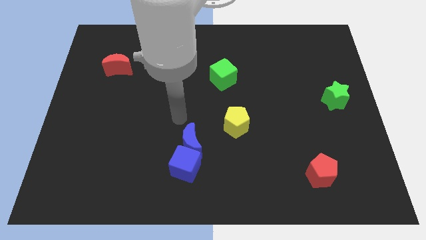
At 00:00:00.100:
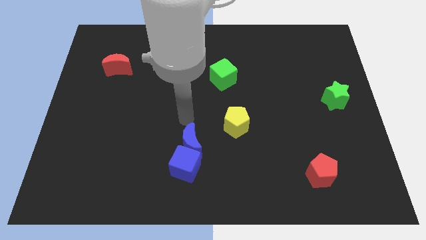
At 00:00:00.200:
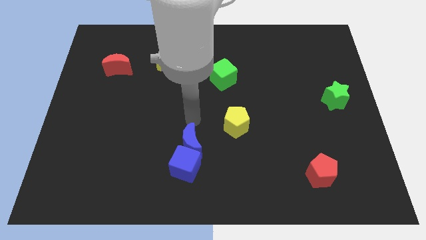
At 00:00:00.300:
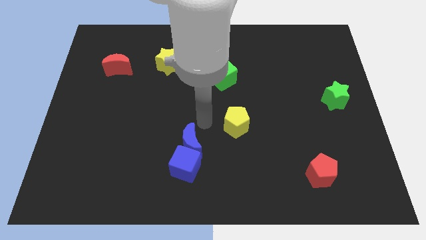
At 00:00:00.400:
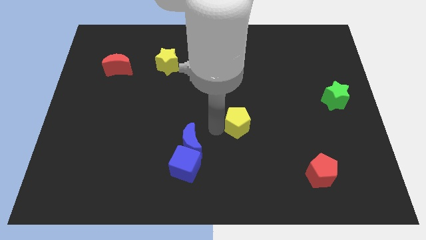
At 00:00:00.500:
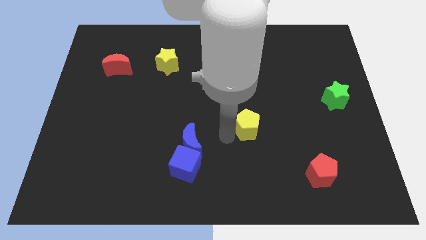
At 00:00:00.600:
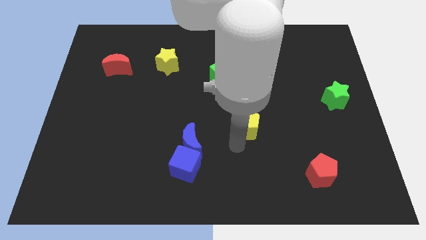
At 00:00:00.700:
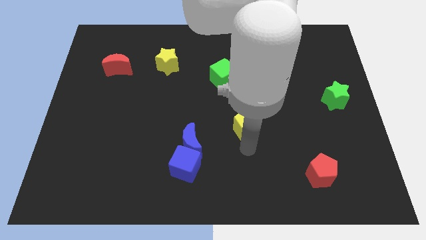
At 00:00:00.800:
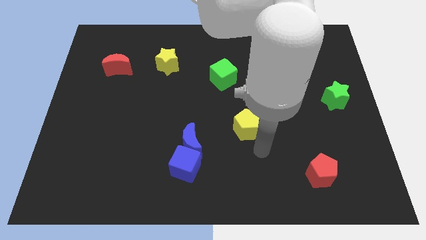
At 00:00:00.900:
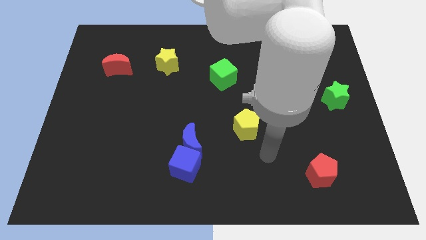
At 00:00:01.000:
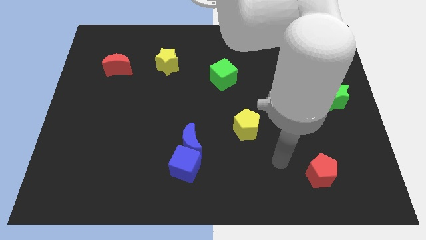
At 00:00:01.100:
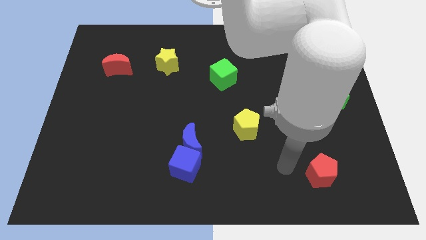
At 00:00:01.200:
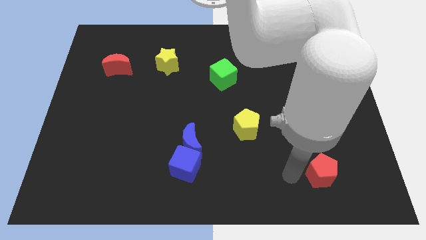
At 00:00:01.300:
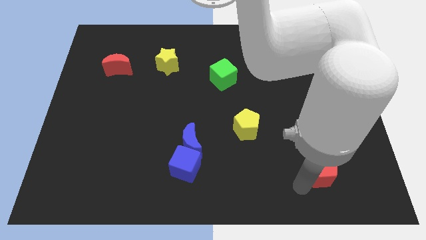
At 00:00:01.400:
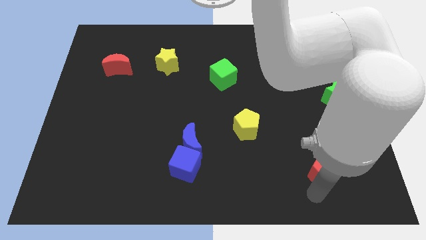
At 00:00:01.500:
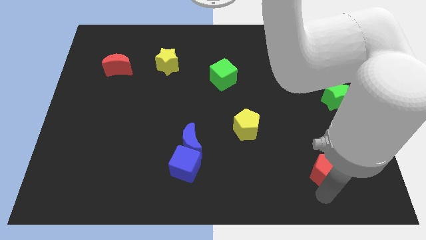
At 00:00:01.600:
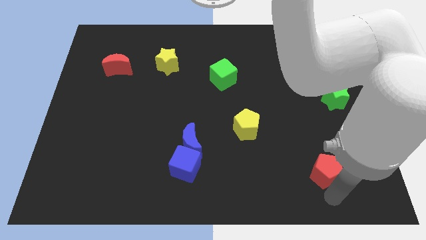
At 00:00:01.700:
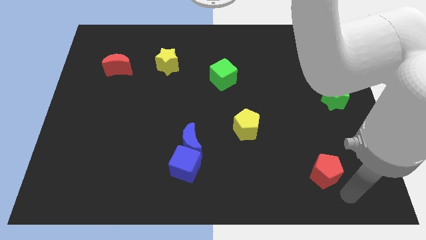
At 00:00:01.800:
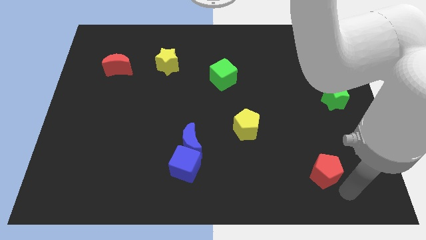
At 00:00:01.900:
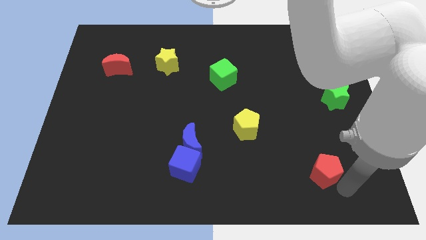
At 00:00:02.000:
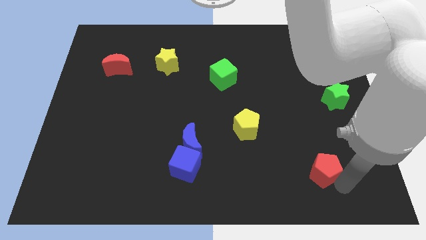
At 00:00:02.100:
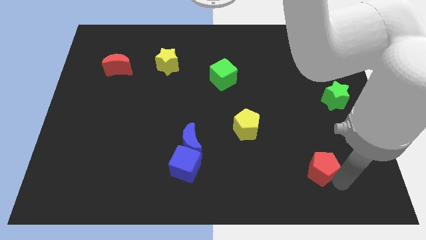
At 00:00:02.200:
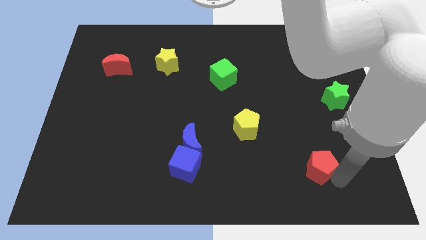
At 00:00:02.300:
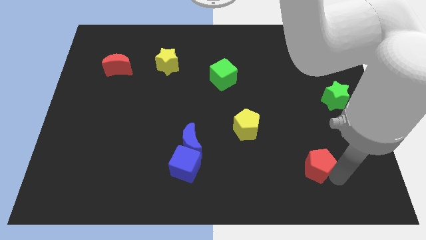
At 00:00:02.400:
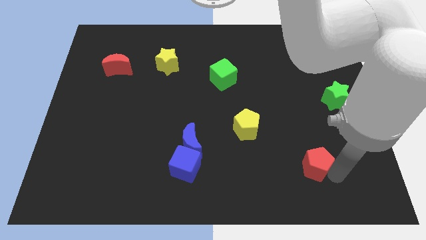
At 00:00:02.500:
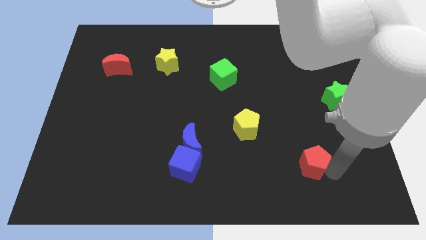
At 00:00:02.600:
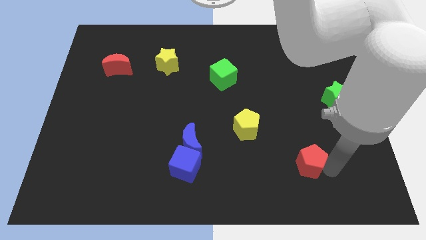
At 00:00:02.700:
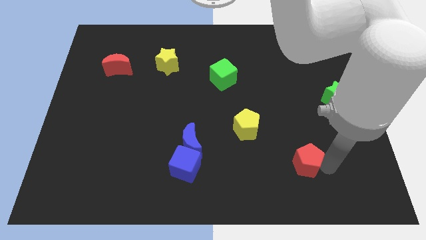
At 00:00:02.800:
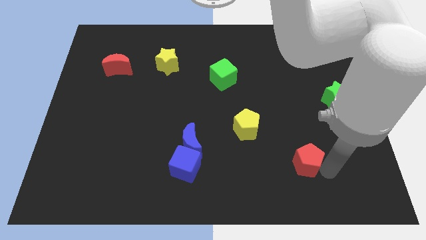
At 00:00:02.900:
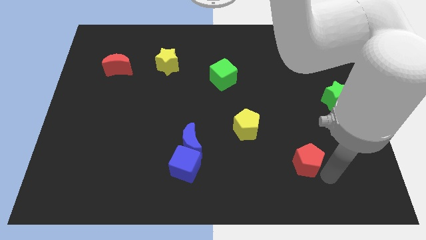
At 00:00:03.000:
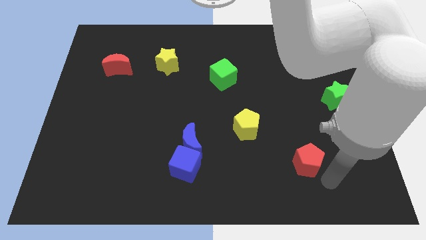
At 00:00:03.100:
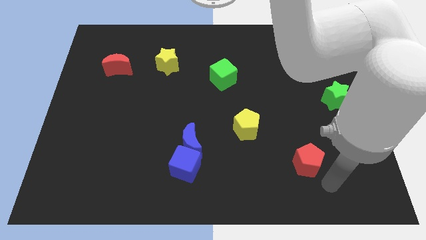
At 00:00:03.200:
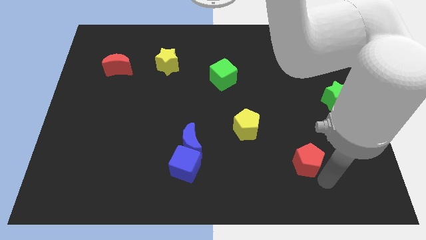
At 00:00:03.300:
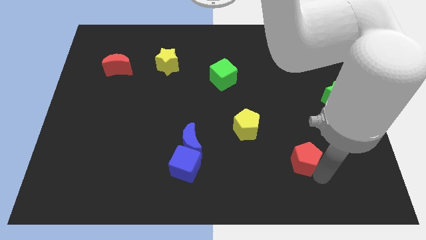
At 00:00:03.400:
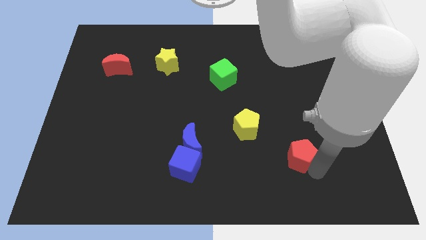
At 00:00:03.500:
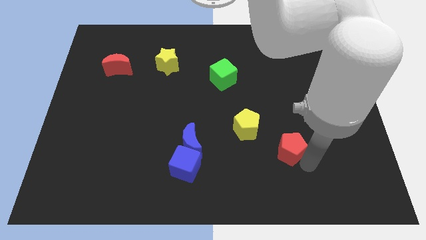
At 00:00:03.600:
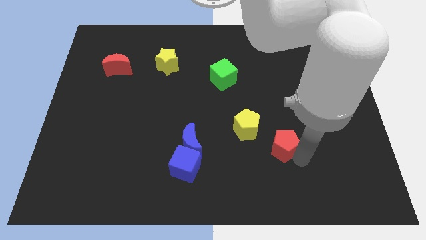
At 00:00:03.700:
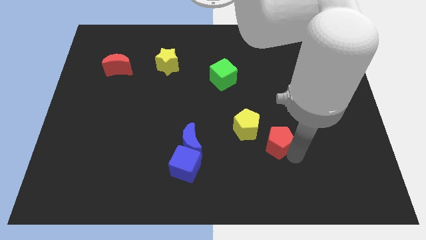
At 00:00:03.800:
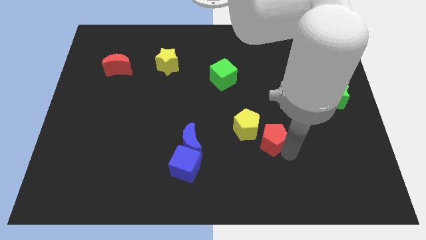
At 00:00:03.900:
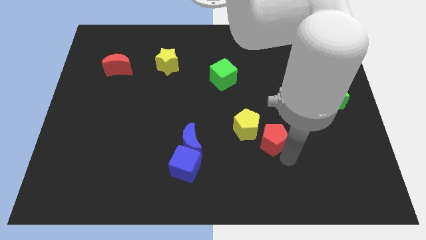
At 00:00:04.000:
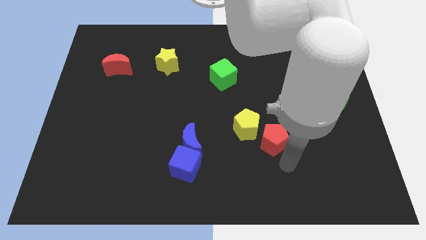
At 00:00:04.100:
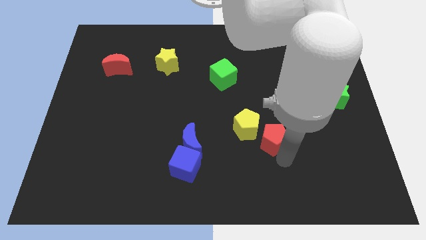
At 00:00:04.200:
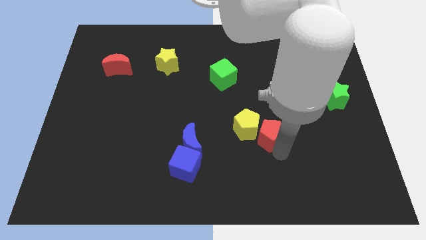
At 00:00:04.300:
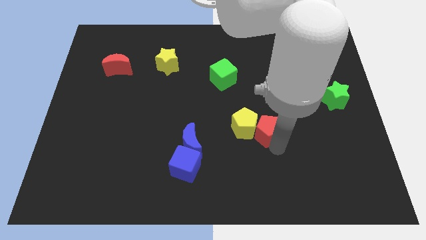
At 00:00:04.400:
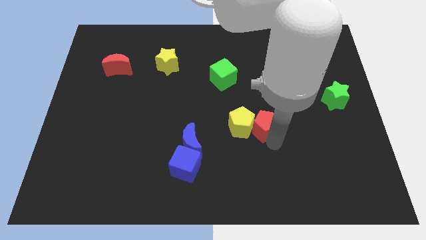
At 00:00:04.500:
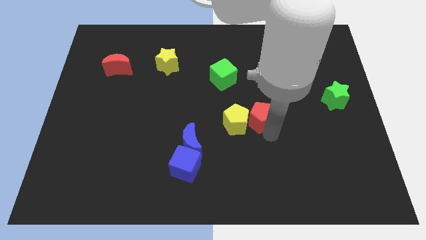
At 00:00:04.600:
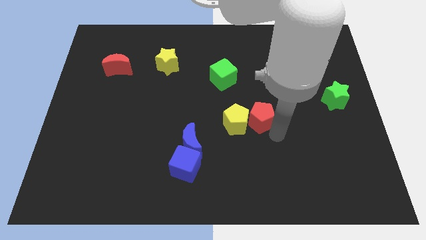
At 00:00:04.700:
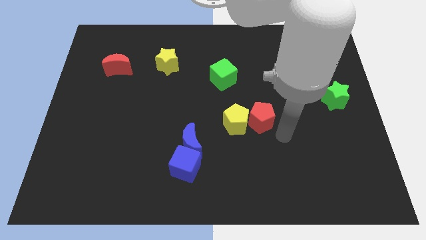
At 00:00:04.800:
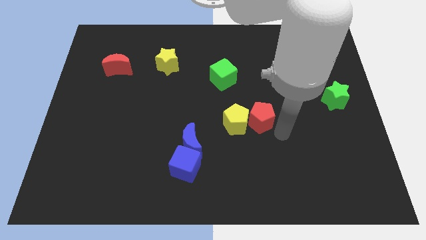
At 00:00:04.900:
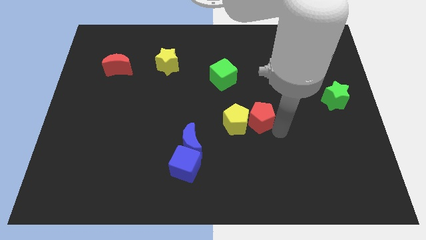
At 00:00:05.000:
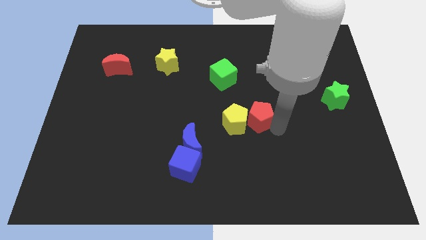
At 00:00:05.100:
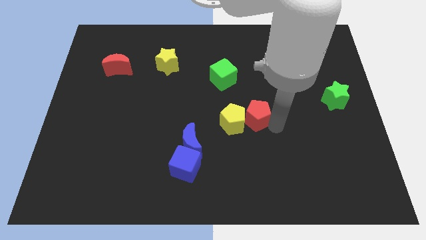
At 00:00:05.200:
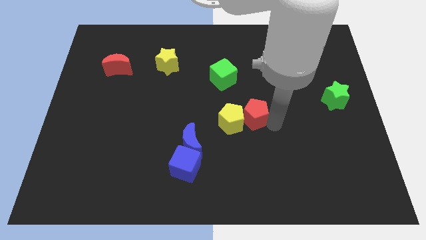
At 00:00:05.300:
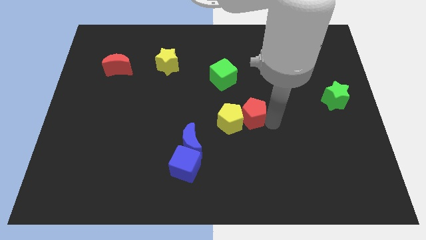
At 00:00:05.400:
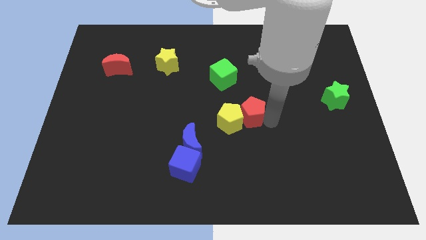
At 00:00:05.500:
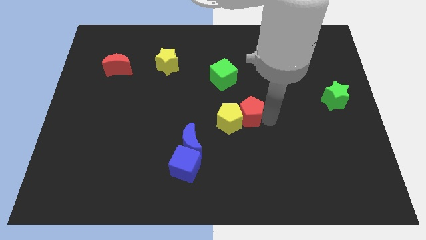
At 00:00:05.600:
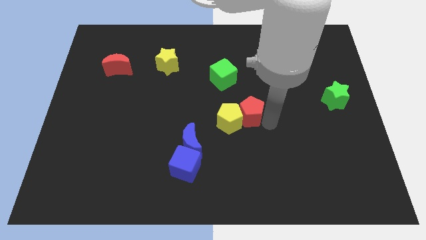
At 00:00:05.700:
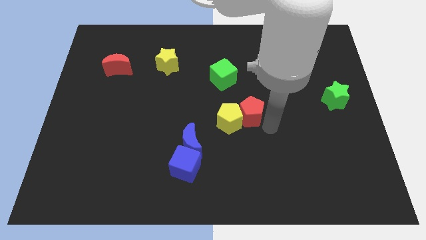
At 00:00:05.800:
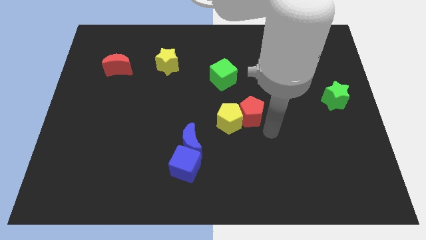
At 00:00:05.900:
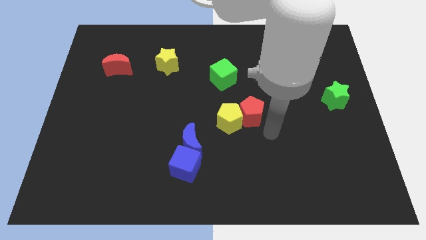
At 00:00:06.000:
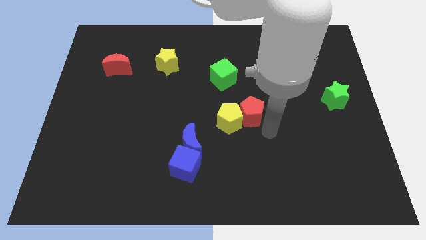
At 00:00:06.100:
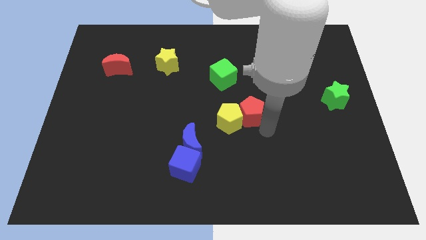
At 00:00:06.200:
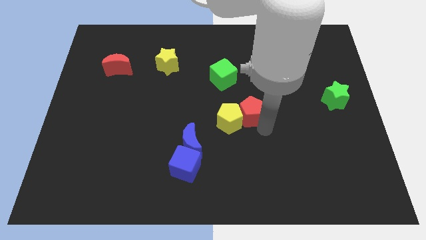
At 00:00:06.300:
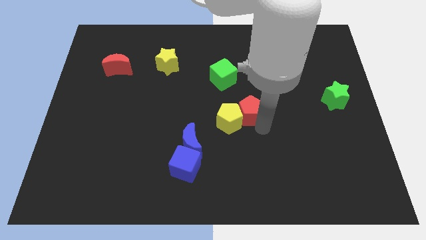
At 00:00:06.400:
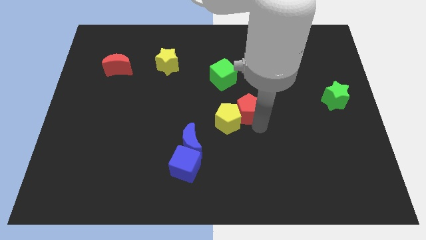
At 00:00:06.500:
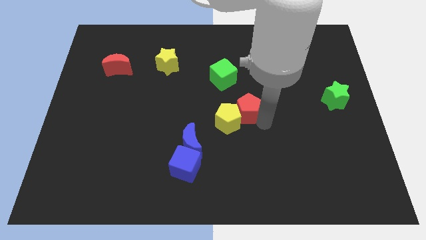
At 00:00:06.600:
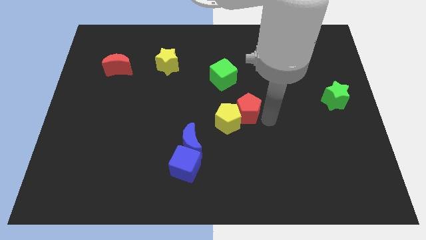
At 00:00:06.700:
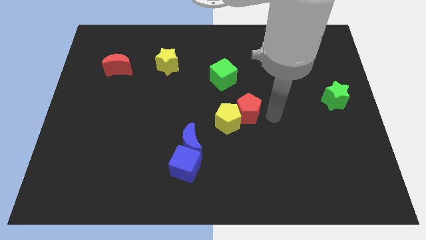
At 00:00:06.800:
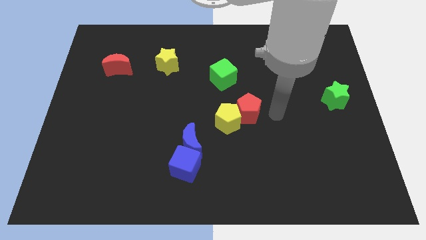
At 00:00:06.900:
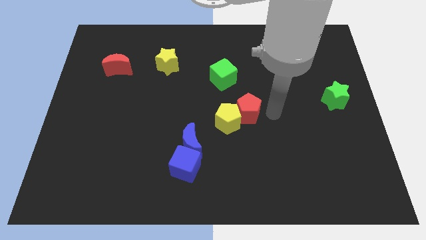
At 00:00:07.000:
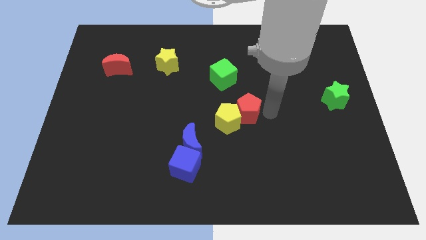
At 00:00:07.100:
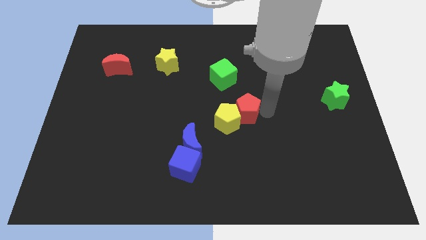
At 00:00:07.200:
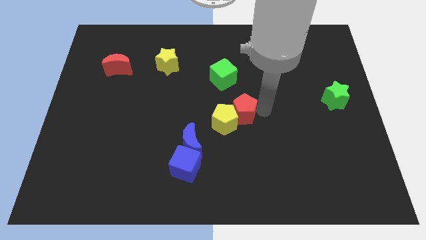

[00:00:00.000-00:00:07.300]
put the red pentagon below the green cube
